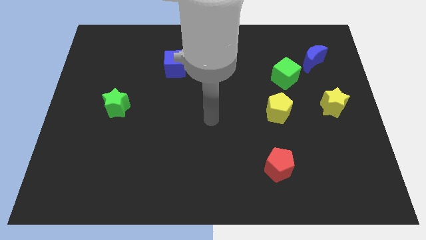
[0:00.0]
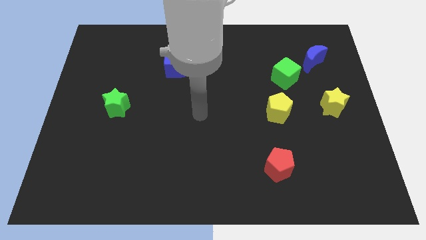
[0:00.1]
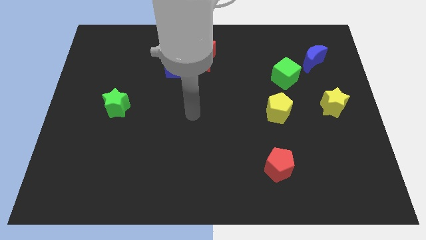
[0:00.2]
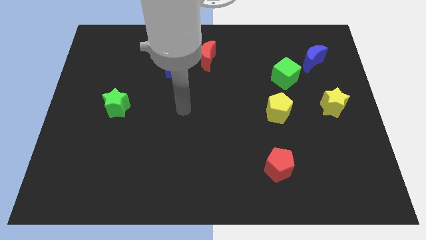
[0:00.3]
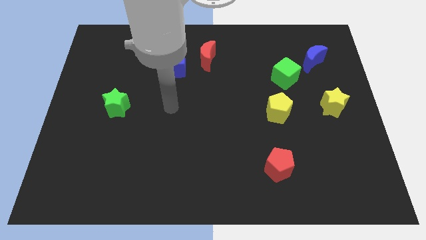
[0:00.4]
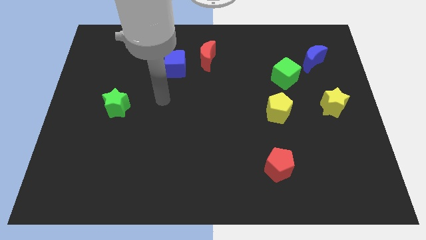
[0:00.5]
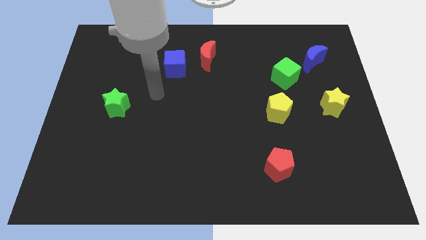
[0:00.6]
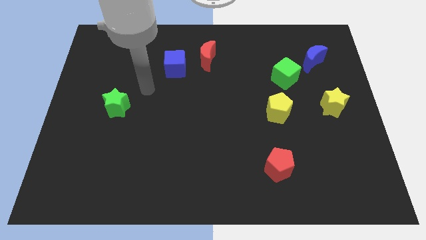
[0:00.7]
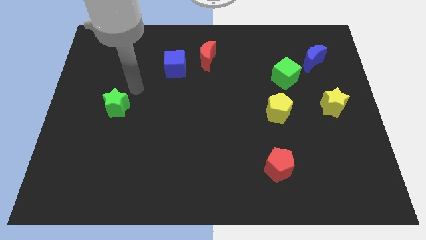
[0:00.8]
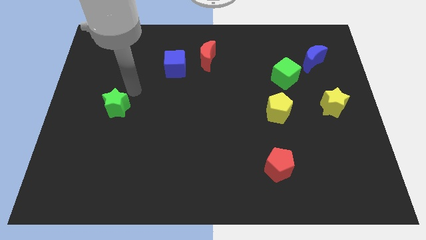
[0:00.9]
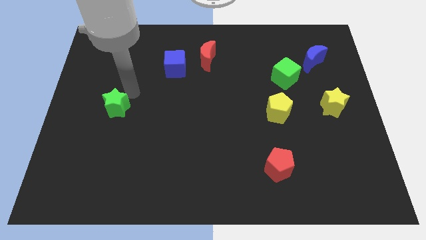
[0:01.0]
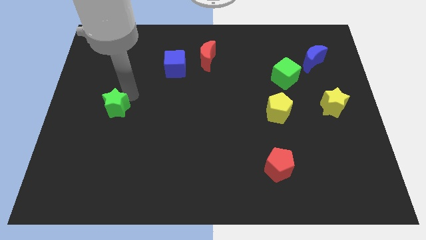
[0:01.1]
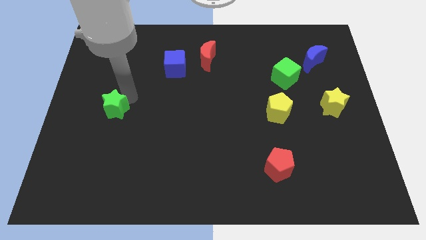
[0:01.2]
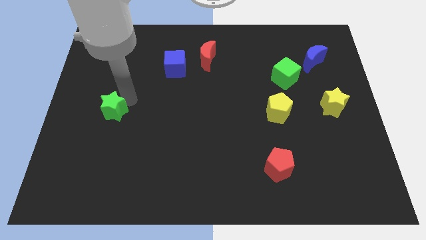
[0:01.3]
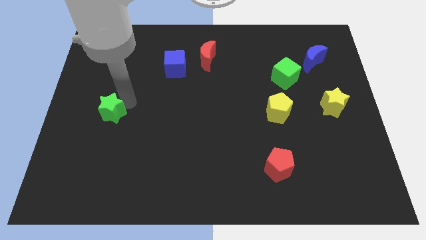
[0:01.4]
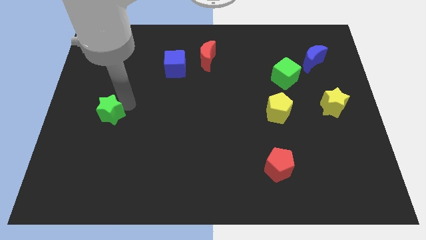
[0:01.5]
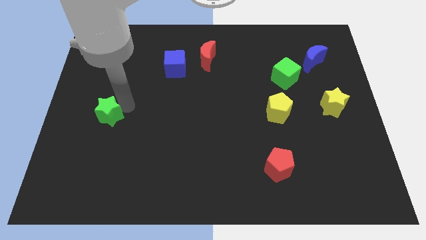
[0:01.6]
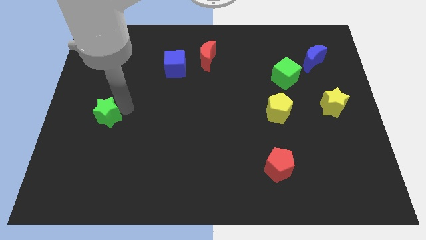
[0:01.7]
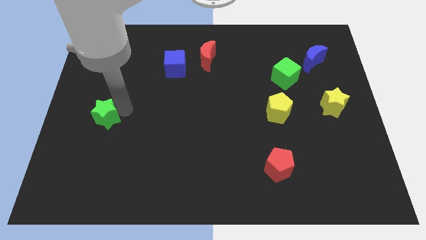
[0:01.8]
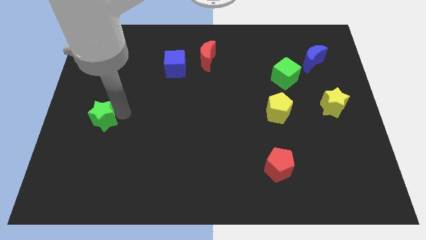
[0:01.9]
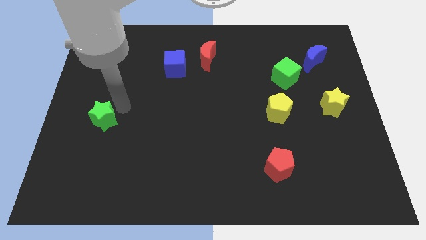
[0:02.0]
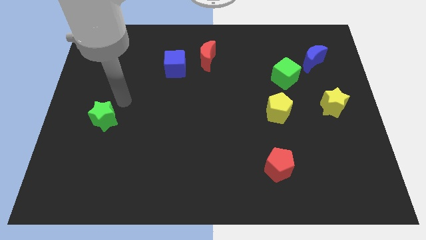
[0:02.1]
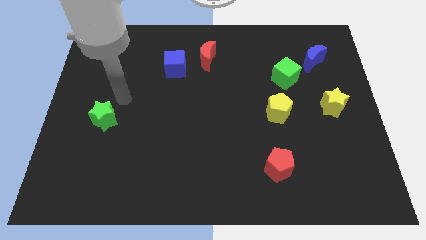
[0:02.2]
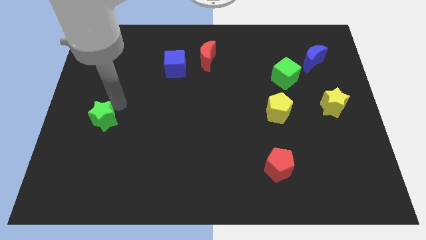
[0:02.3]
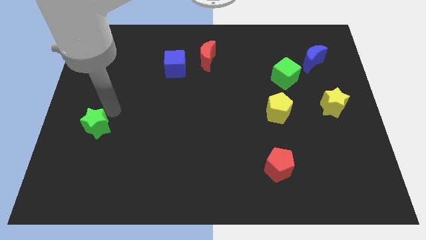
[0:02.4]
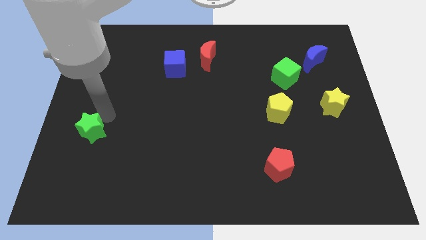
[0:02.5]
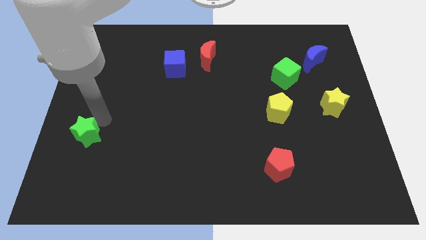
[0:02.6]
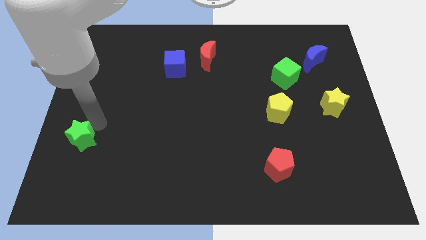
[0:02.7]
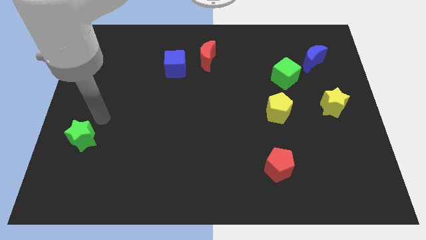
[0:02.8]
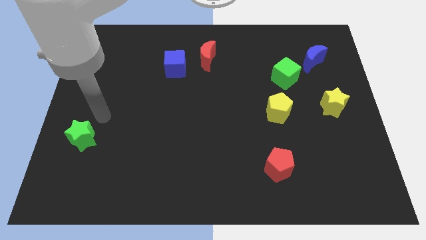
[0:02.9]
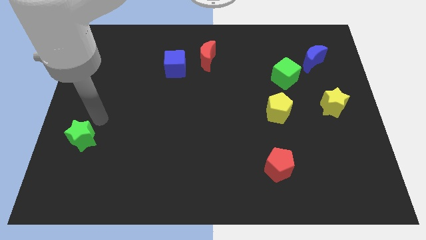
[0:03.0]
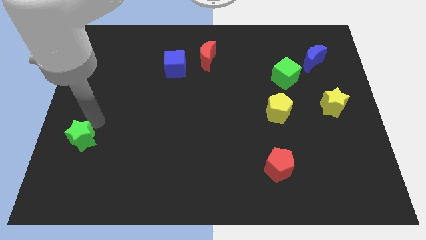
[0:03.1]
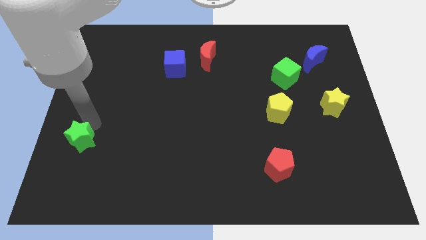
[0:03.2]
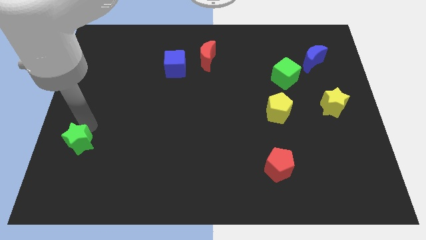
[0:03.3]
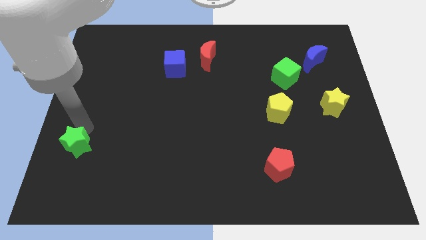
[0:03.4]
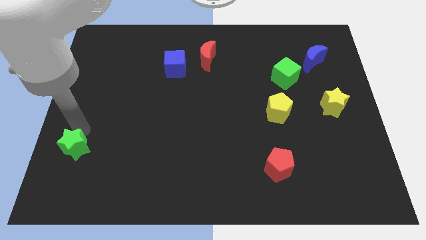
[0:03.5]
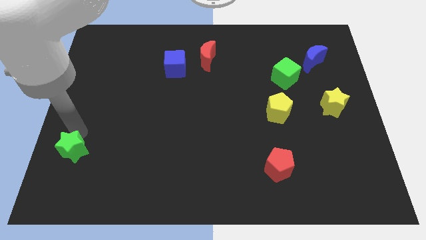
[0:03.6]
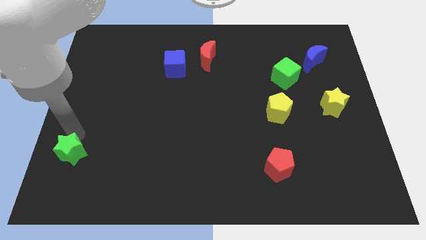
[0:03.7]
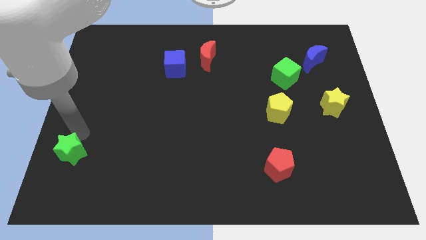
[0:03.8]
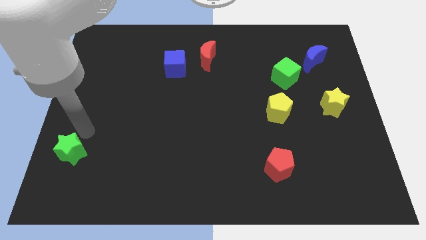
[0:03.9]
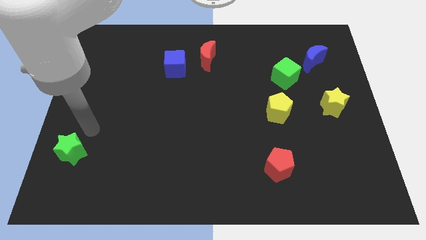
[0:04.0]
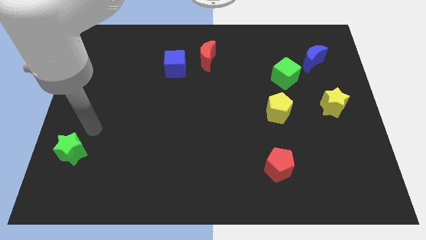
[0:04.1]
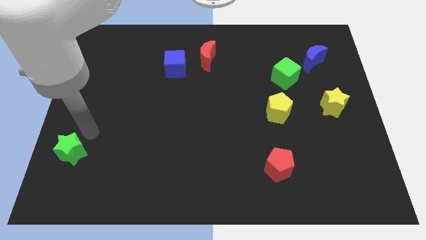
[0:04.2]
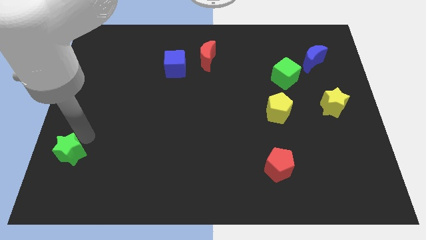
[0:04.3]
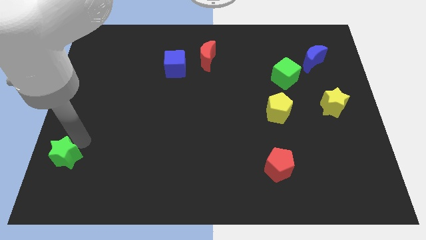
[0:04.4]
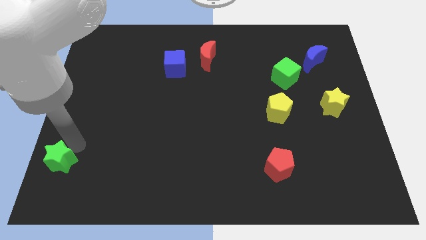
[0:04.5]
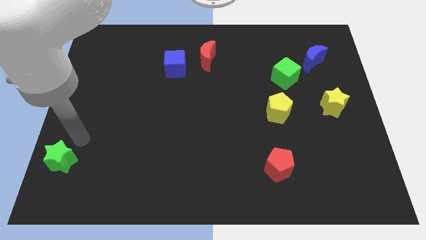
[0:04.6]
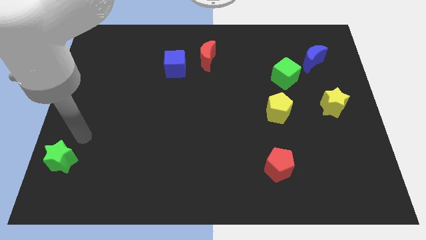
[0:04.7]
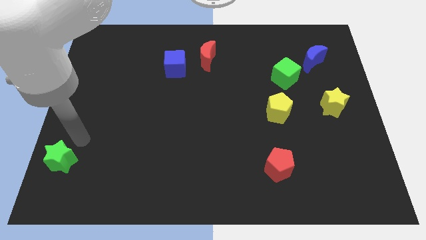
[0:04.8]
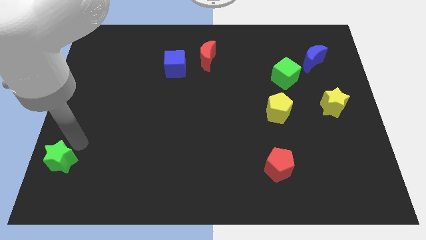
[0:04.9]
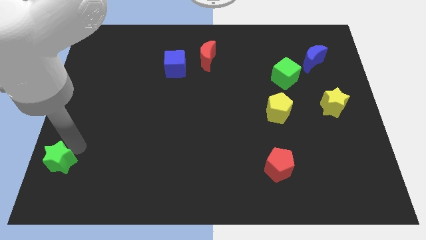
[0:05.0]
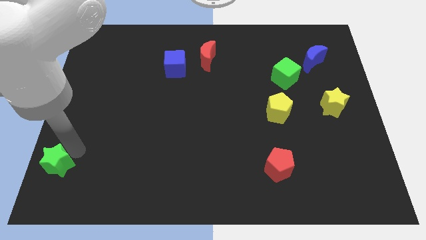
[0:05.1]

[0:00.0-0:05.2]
put the green star to the lower left corner

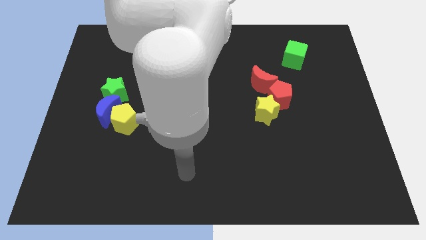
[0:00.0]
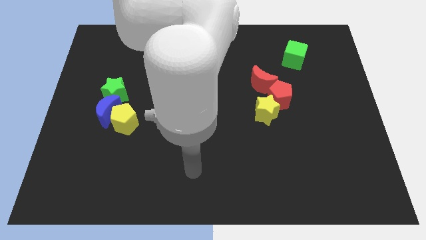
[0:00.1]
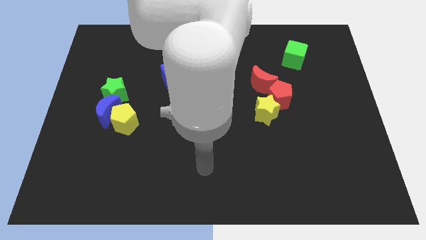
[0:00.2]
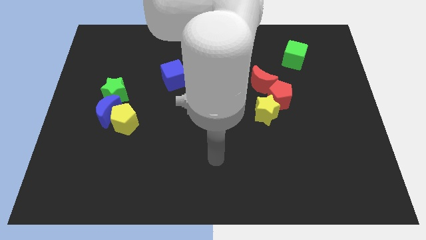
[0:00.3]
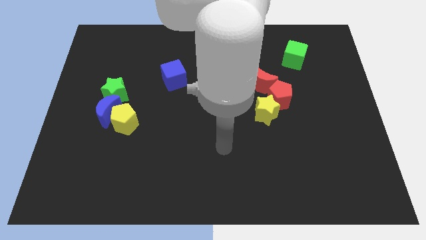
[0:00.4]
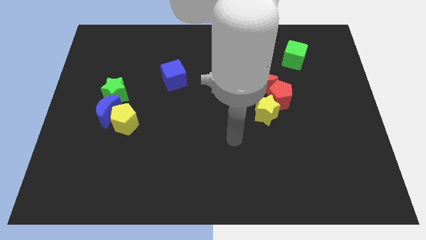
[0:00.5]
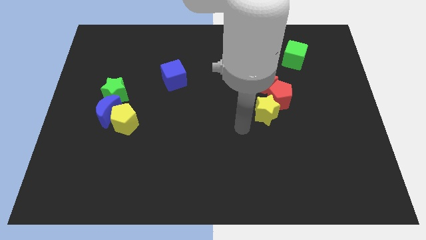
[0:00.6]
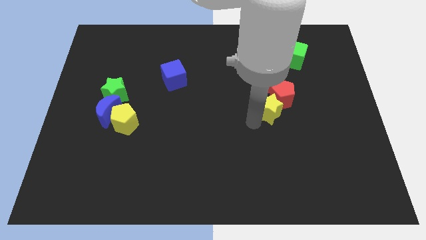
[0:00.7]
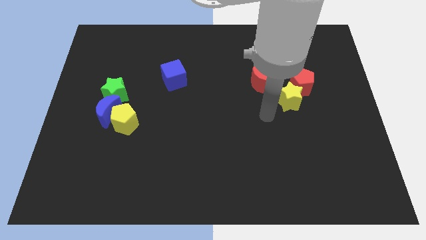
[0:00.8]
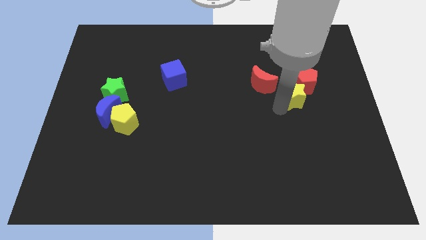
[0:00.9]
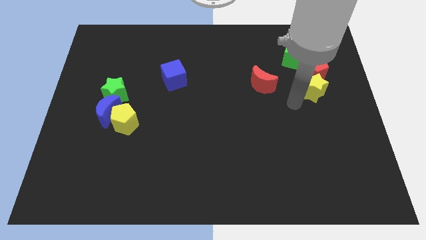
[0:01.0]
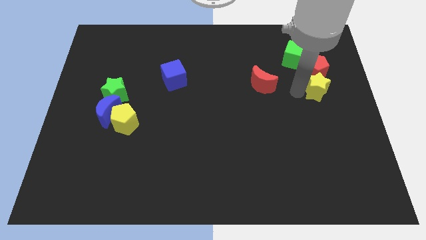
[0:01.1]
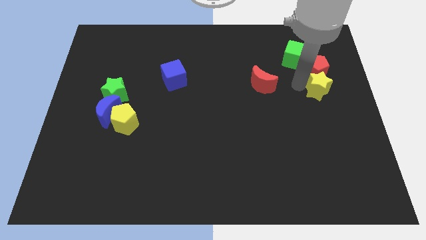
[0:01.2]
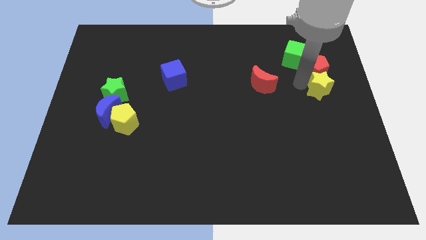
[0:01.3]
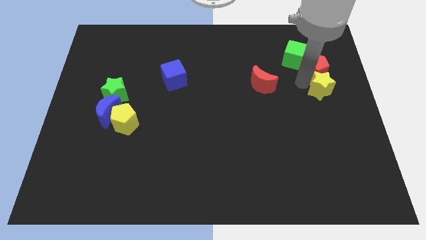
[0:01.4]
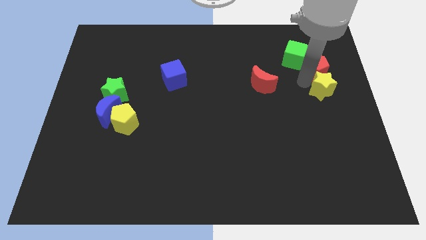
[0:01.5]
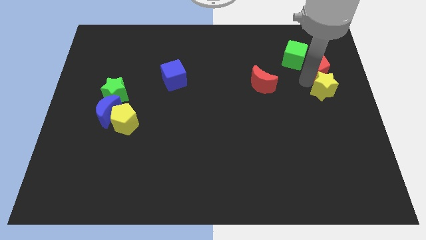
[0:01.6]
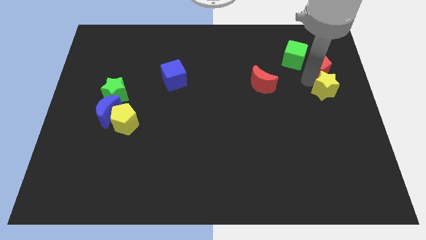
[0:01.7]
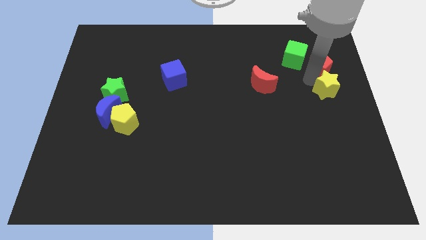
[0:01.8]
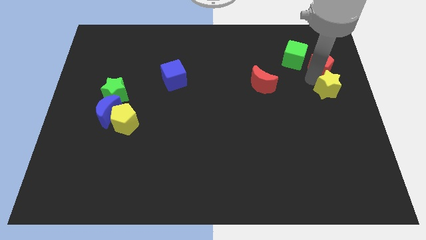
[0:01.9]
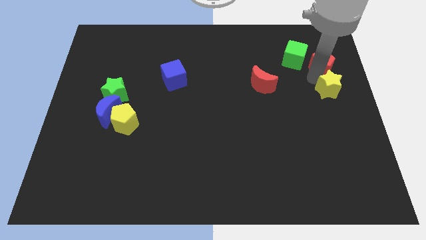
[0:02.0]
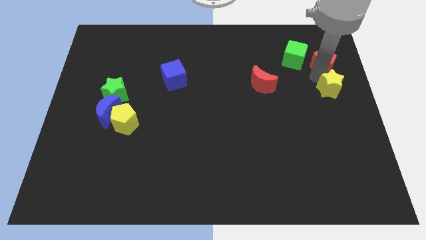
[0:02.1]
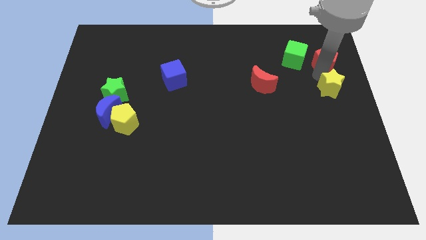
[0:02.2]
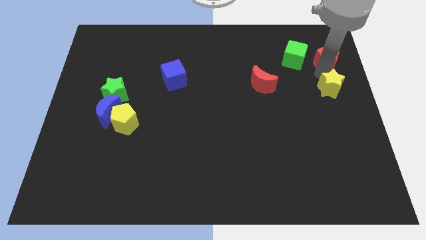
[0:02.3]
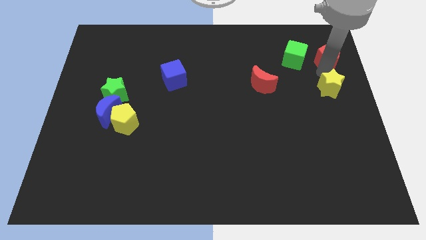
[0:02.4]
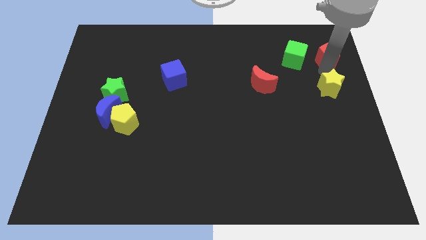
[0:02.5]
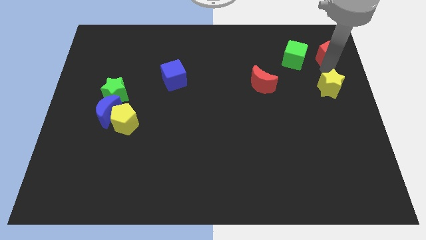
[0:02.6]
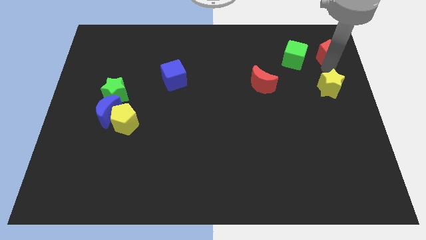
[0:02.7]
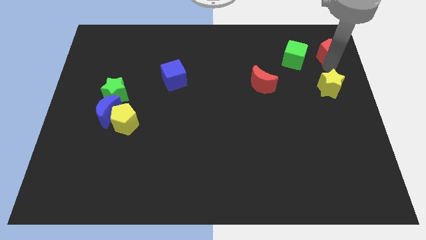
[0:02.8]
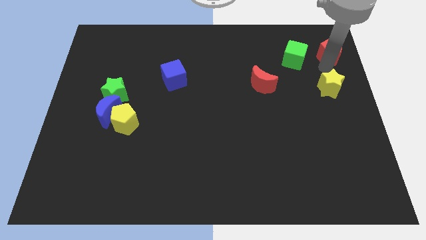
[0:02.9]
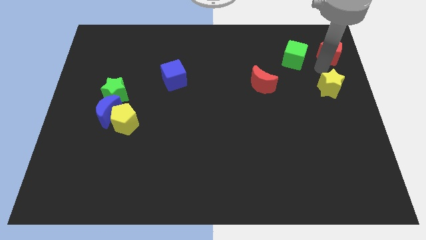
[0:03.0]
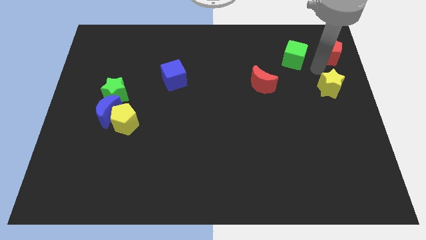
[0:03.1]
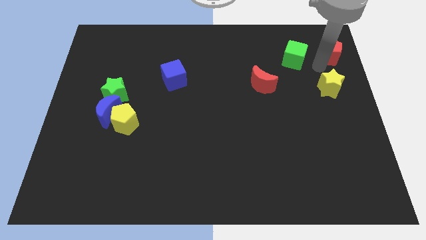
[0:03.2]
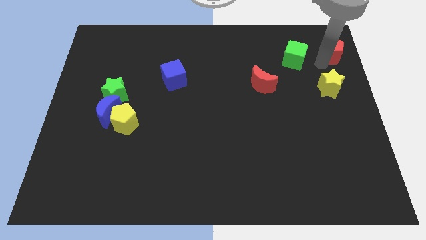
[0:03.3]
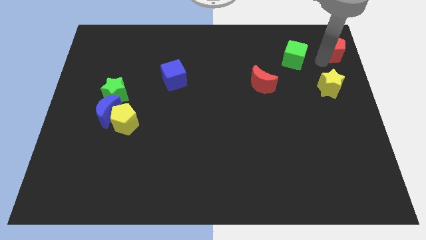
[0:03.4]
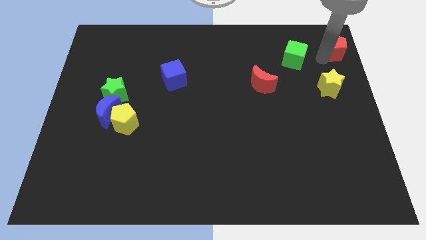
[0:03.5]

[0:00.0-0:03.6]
push the red pentagon to the upper right corner
